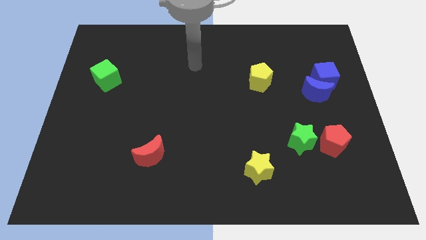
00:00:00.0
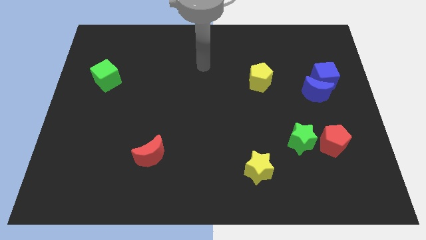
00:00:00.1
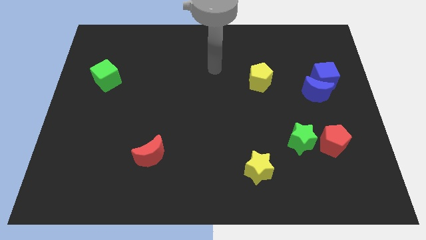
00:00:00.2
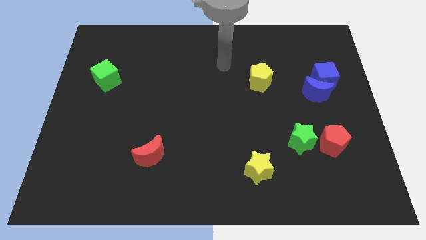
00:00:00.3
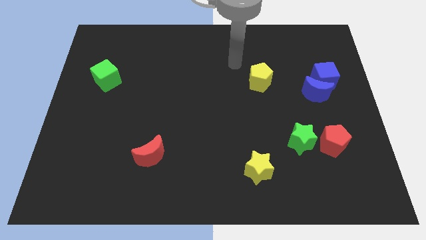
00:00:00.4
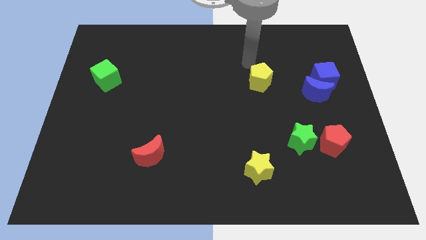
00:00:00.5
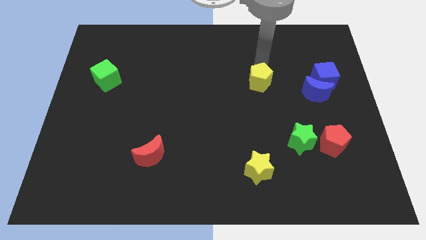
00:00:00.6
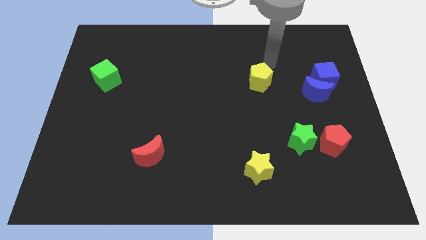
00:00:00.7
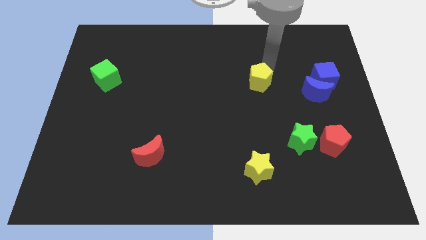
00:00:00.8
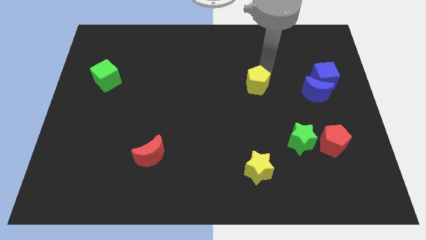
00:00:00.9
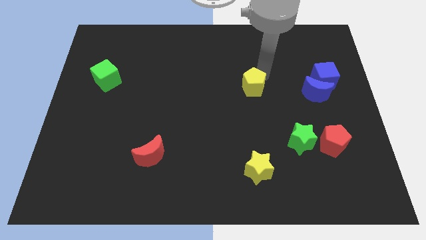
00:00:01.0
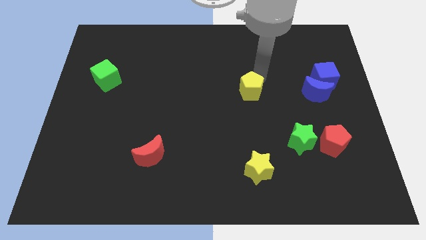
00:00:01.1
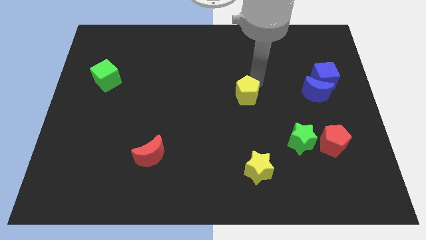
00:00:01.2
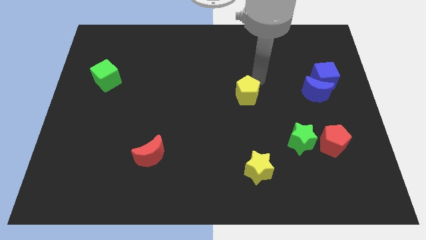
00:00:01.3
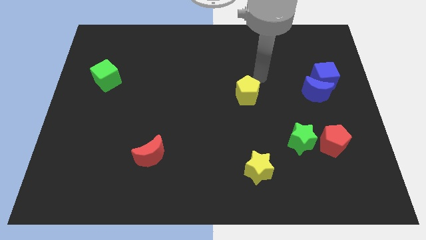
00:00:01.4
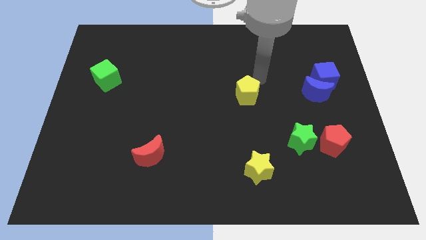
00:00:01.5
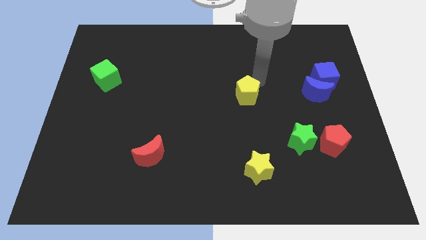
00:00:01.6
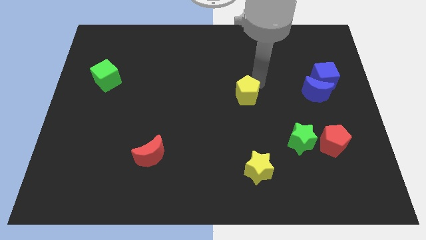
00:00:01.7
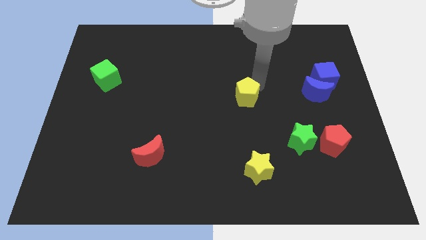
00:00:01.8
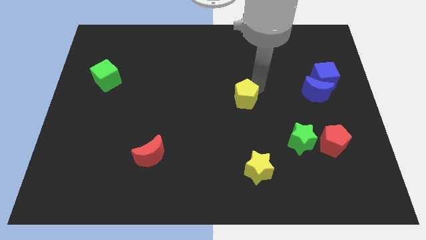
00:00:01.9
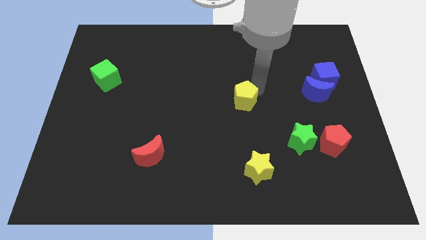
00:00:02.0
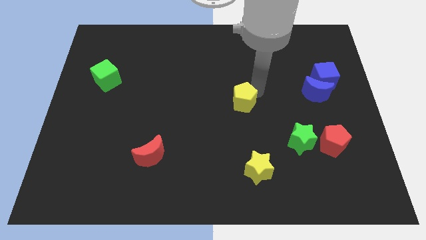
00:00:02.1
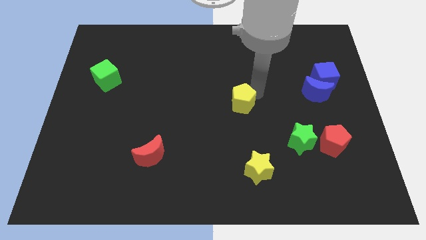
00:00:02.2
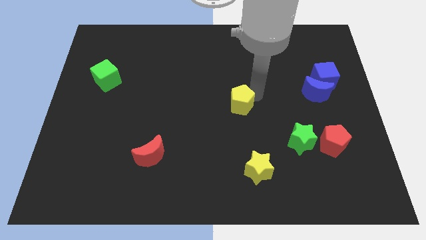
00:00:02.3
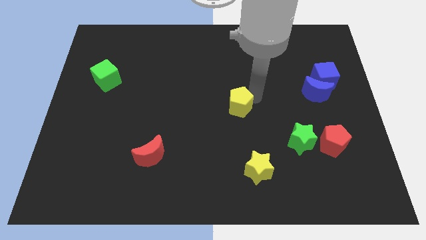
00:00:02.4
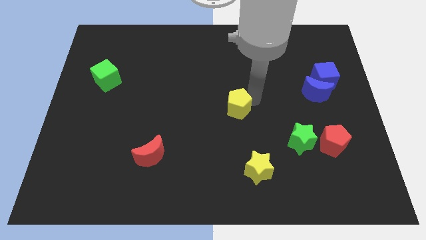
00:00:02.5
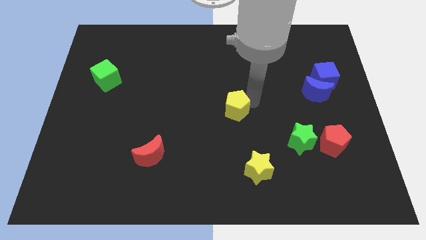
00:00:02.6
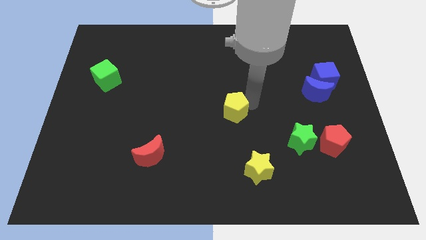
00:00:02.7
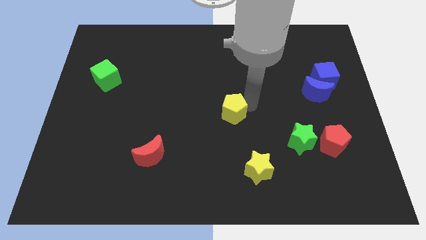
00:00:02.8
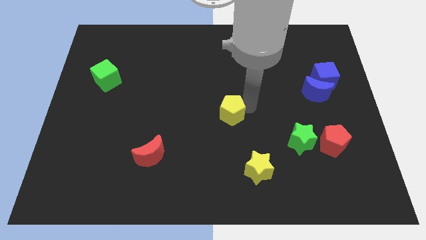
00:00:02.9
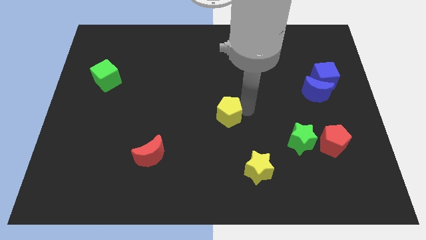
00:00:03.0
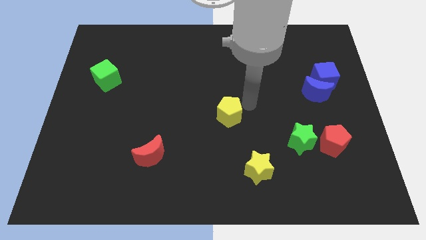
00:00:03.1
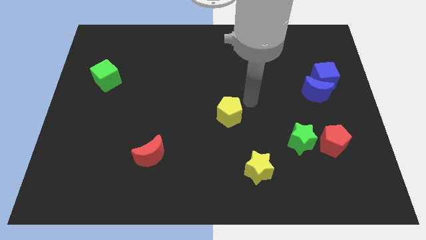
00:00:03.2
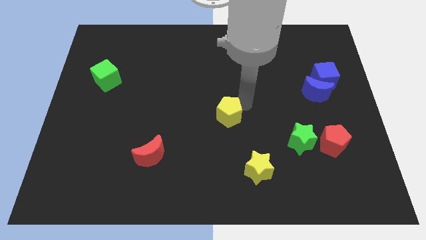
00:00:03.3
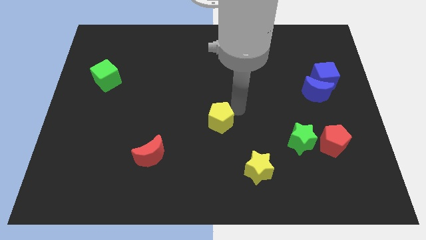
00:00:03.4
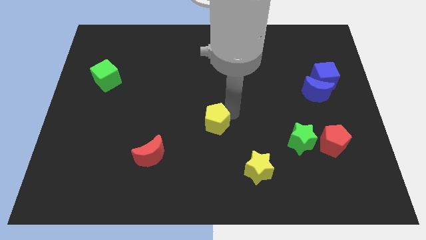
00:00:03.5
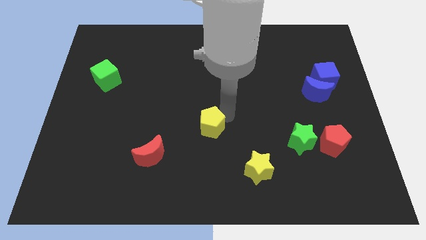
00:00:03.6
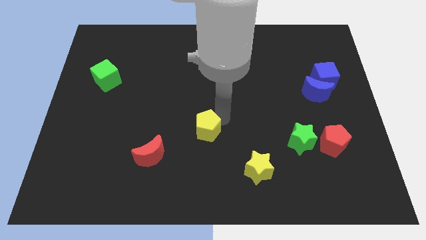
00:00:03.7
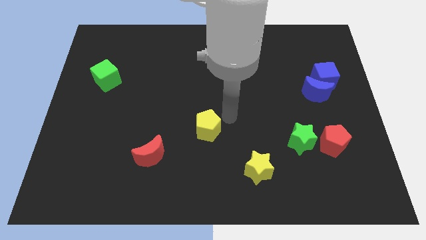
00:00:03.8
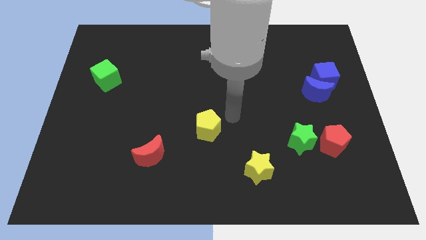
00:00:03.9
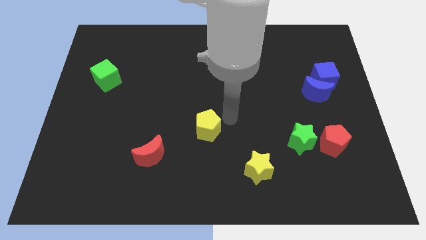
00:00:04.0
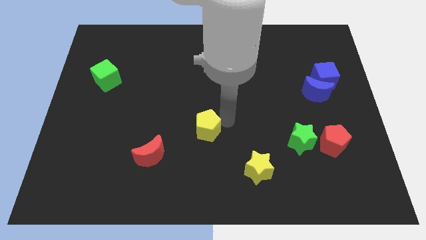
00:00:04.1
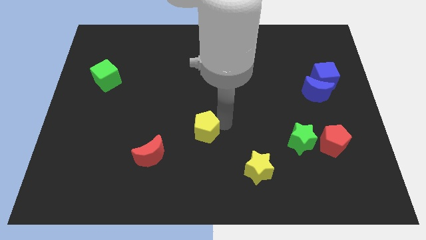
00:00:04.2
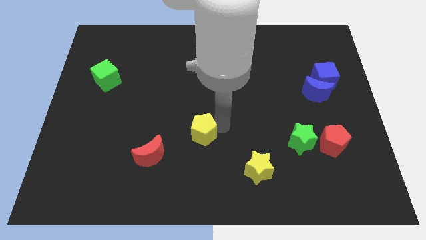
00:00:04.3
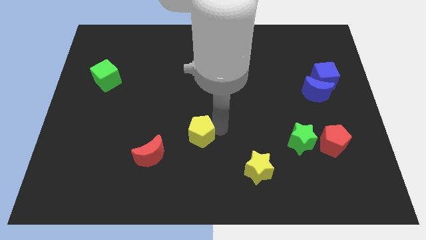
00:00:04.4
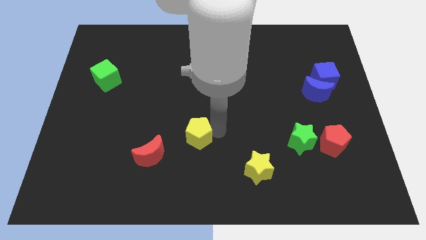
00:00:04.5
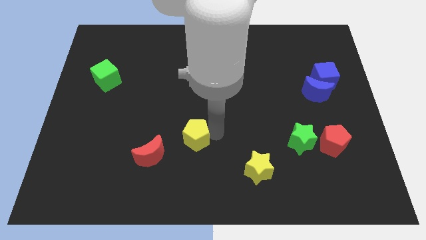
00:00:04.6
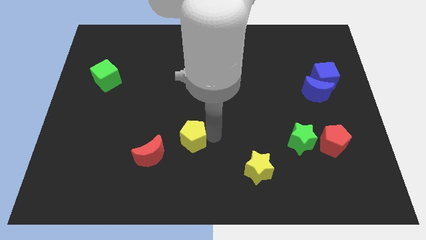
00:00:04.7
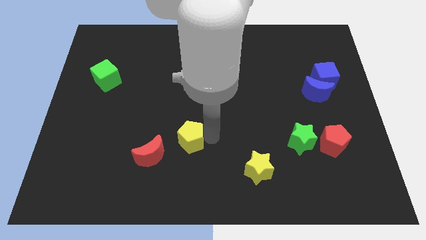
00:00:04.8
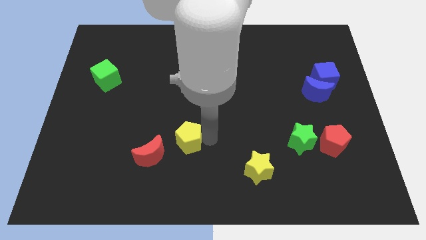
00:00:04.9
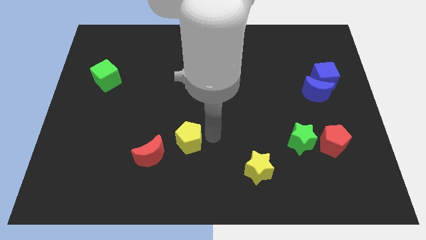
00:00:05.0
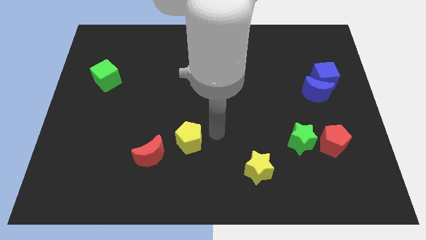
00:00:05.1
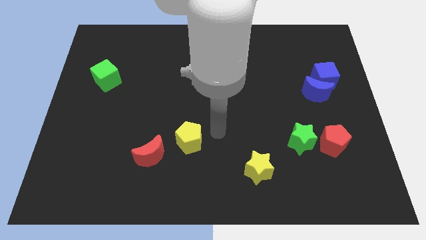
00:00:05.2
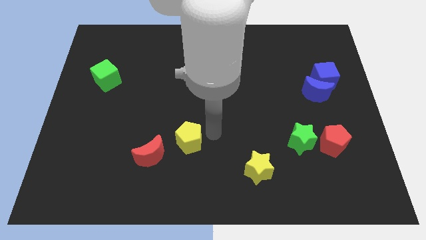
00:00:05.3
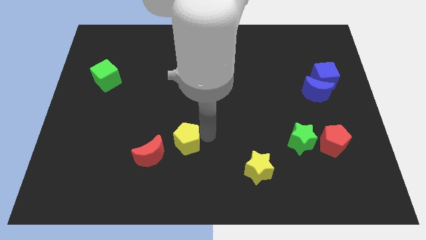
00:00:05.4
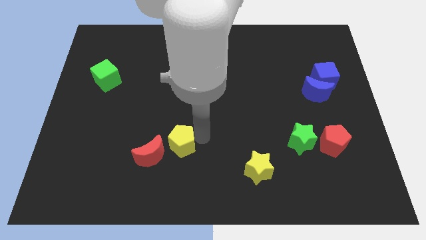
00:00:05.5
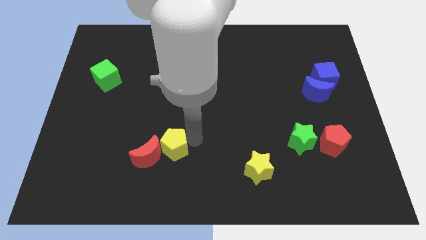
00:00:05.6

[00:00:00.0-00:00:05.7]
move the yellow pentagon next to the red moon

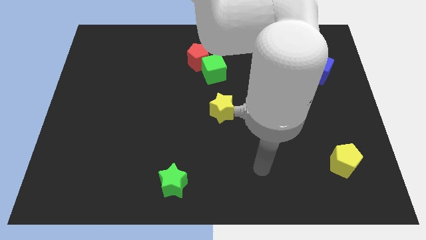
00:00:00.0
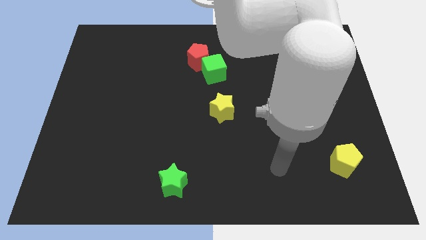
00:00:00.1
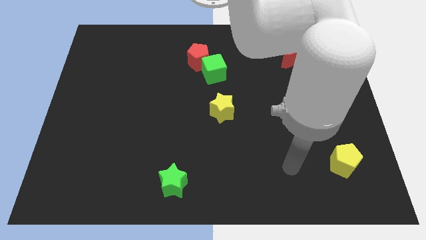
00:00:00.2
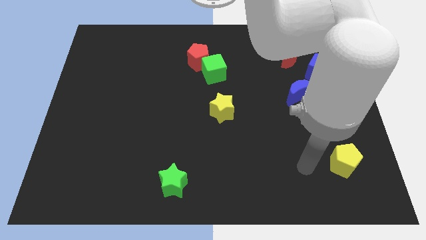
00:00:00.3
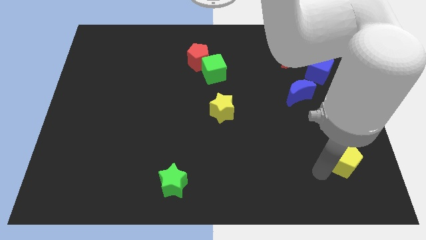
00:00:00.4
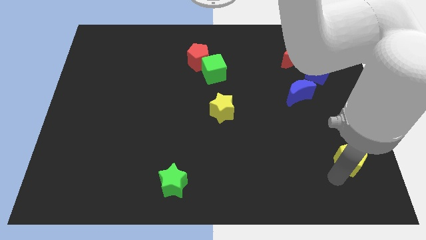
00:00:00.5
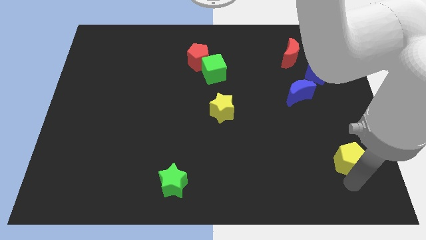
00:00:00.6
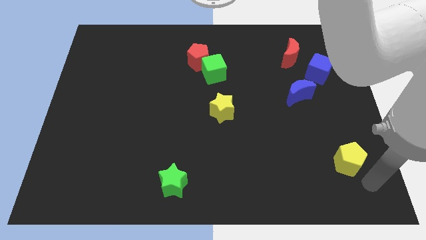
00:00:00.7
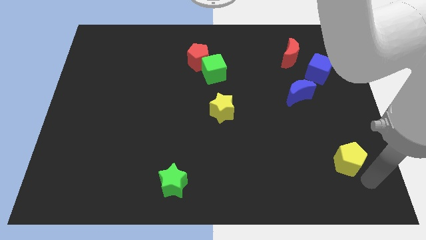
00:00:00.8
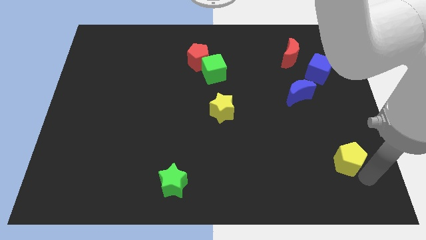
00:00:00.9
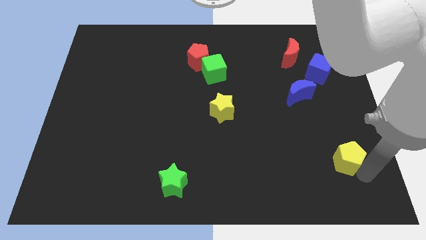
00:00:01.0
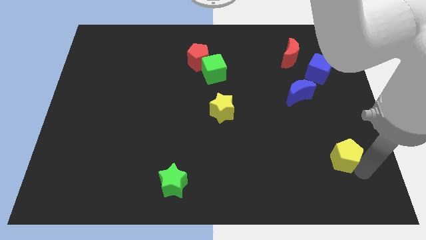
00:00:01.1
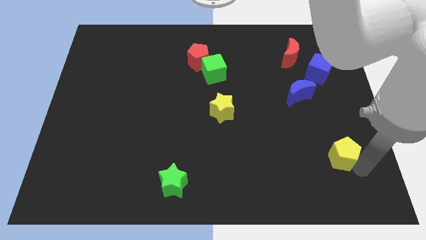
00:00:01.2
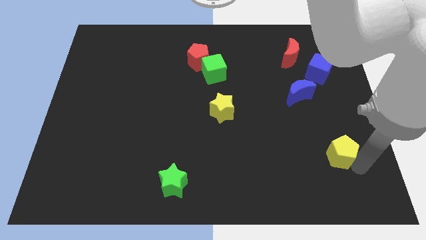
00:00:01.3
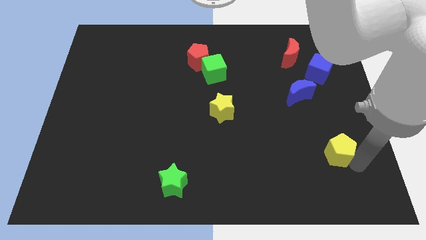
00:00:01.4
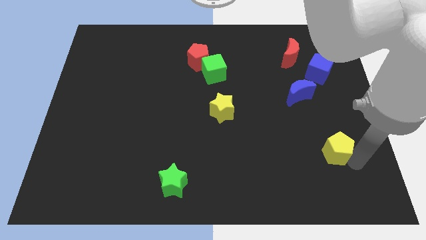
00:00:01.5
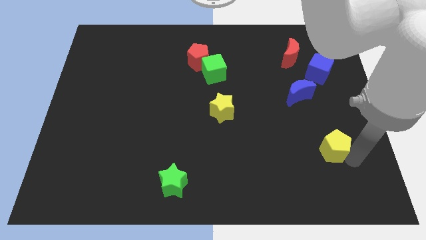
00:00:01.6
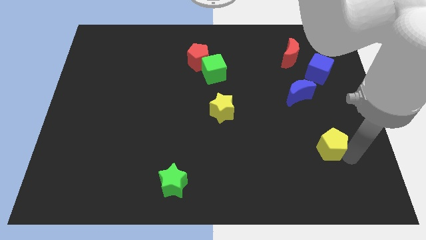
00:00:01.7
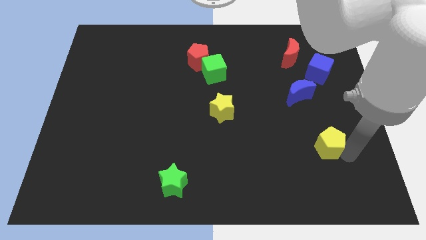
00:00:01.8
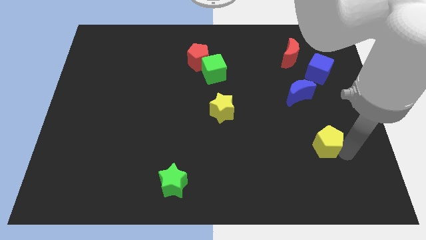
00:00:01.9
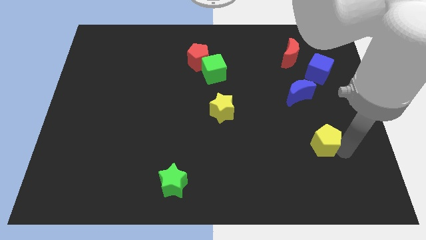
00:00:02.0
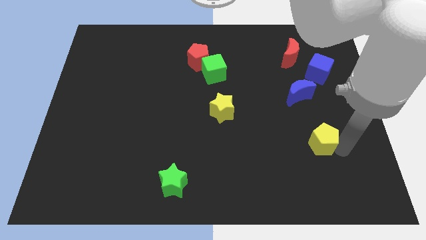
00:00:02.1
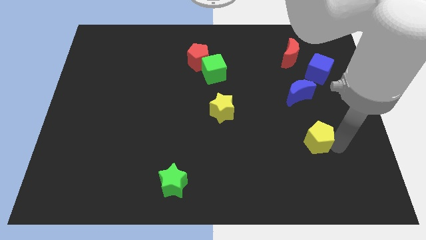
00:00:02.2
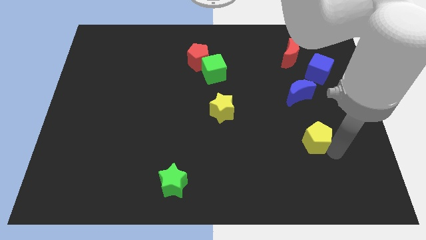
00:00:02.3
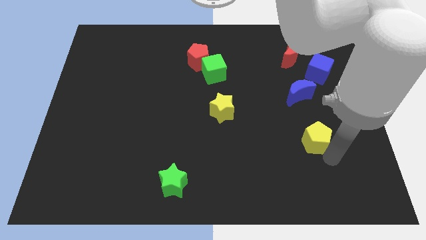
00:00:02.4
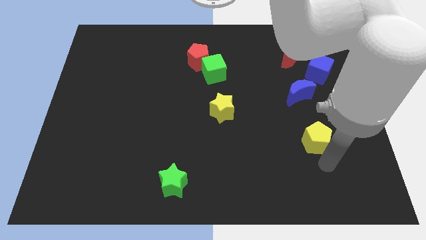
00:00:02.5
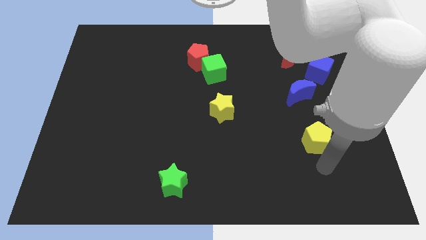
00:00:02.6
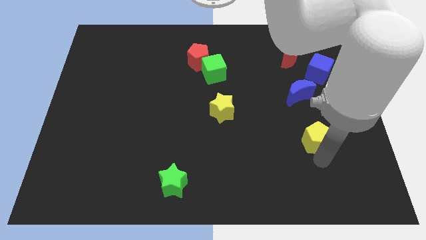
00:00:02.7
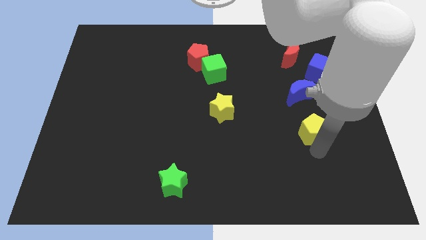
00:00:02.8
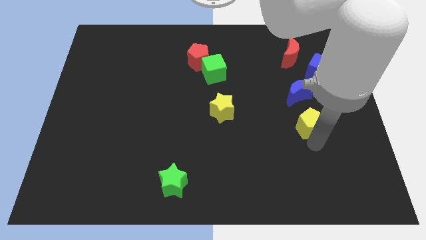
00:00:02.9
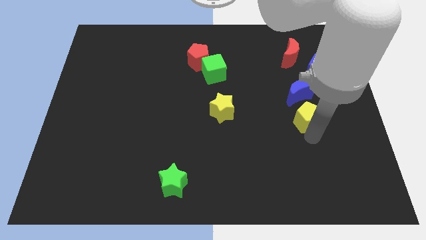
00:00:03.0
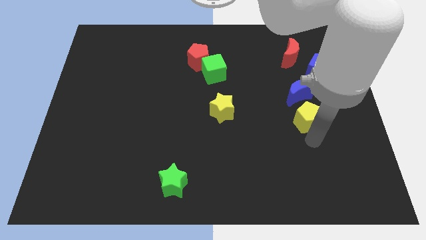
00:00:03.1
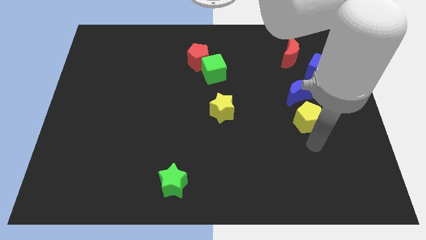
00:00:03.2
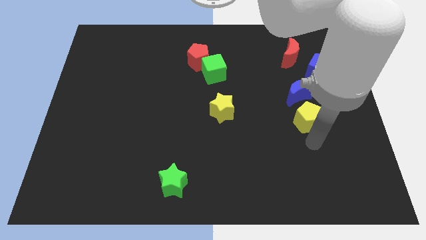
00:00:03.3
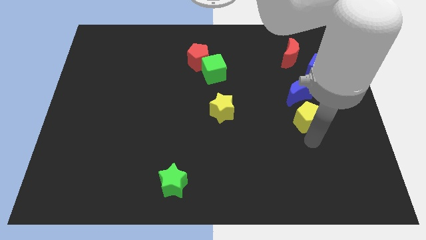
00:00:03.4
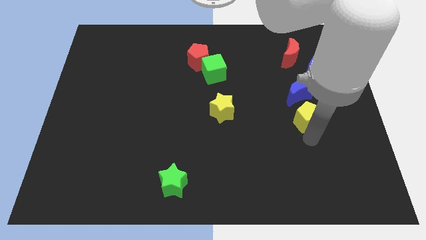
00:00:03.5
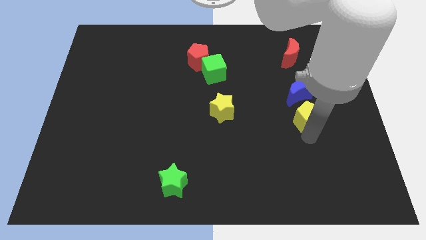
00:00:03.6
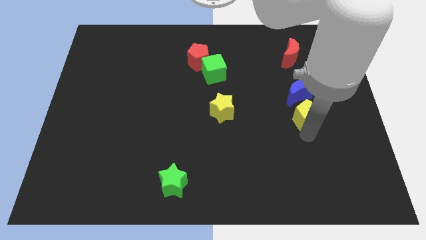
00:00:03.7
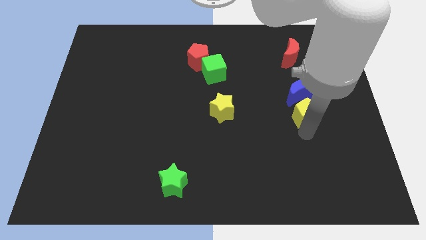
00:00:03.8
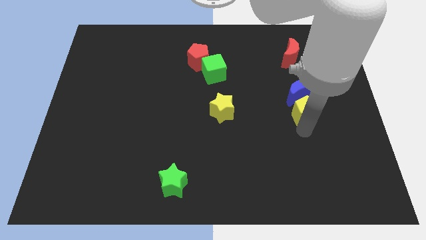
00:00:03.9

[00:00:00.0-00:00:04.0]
put the yellow pentagon close to the blue moon
